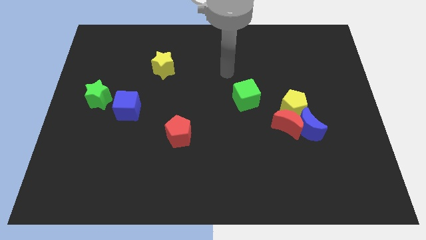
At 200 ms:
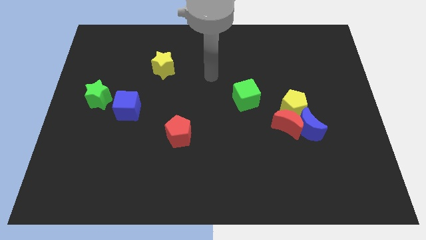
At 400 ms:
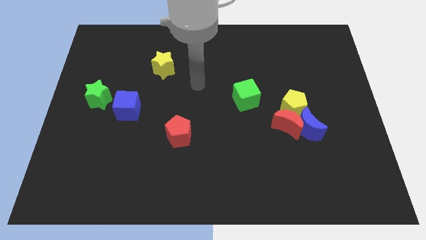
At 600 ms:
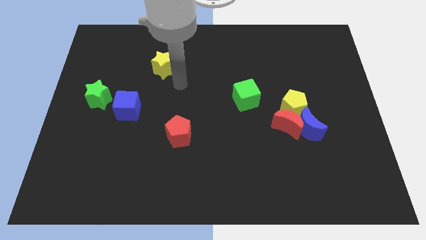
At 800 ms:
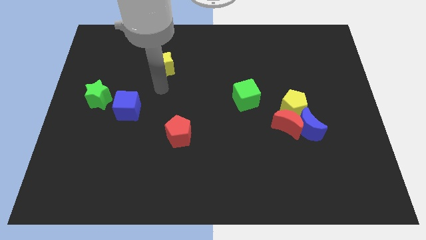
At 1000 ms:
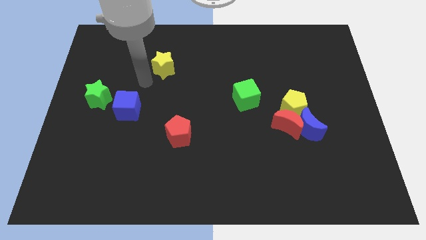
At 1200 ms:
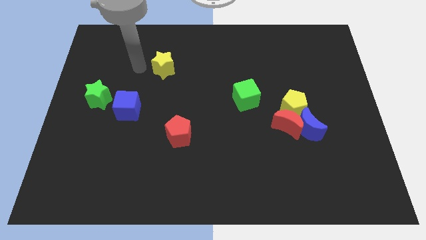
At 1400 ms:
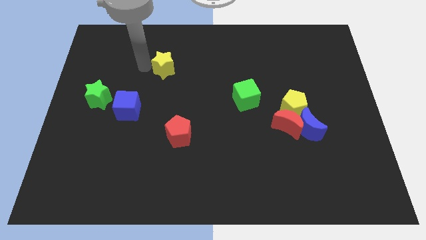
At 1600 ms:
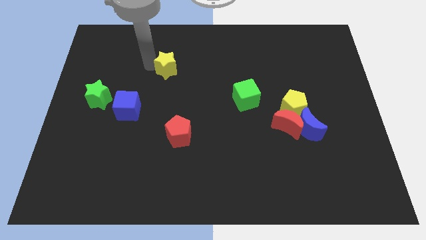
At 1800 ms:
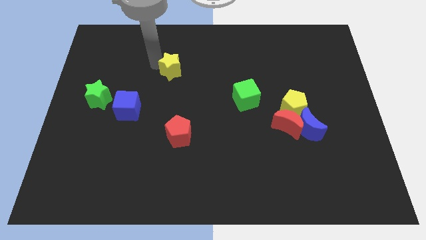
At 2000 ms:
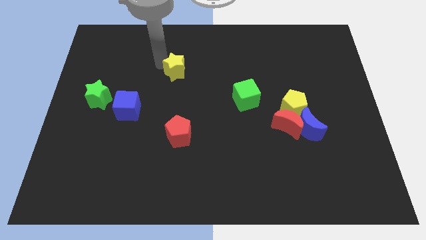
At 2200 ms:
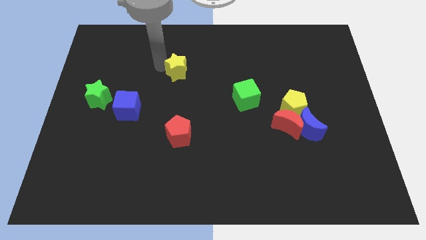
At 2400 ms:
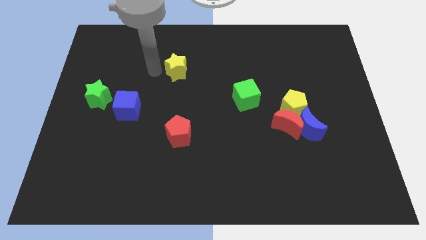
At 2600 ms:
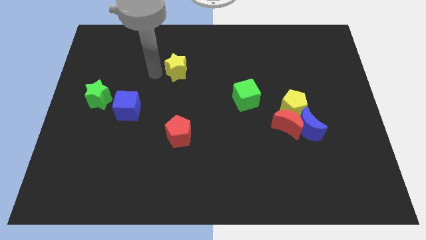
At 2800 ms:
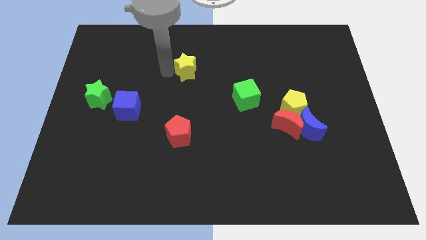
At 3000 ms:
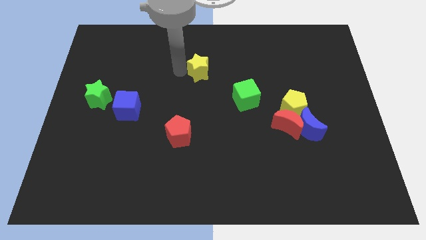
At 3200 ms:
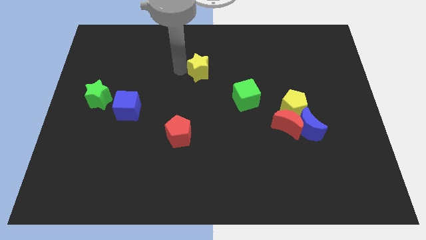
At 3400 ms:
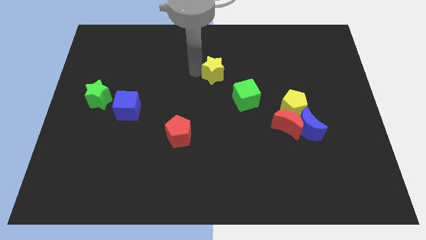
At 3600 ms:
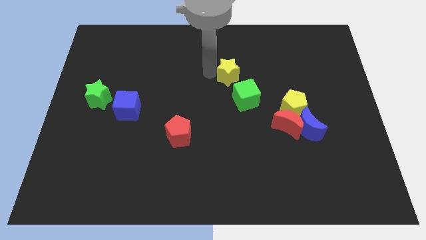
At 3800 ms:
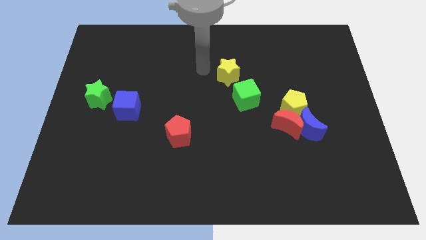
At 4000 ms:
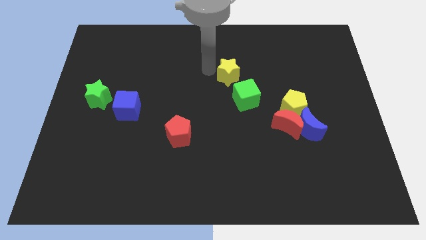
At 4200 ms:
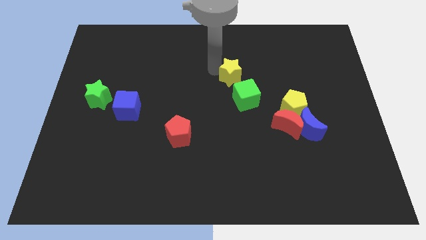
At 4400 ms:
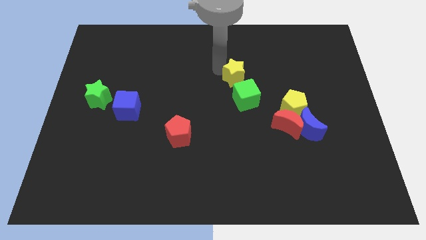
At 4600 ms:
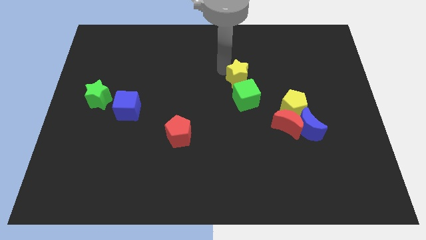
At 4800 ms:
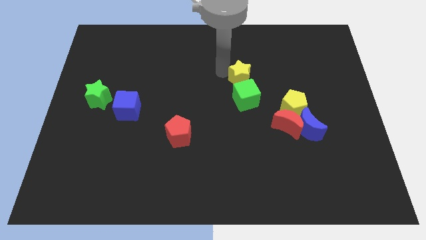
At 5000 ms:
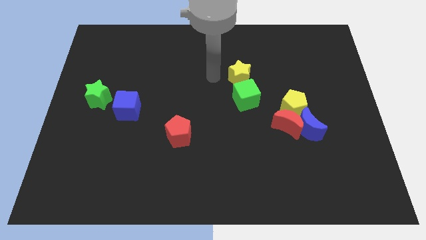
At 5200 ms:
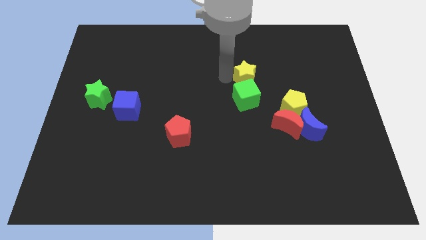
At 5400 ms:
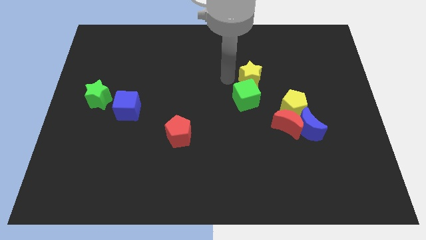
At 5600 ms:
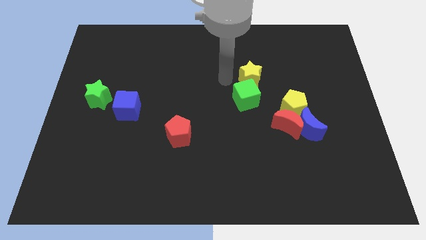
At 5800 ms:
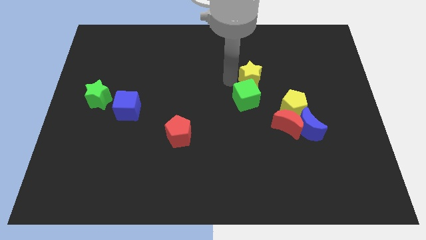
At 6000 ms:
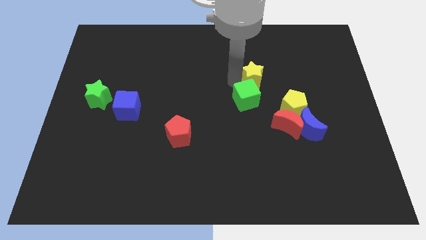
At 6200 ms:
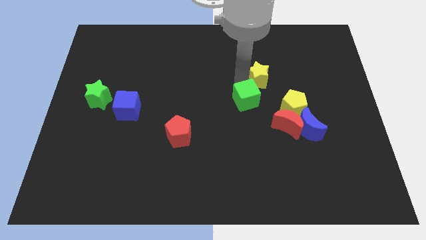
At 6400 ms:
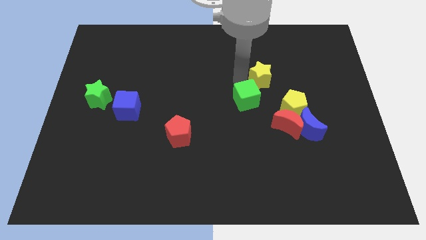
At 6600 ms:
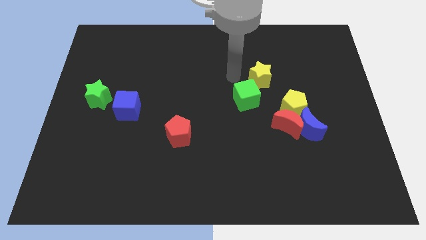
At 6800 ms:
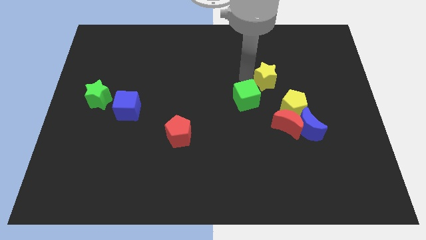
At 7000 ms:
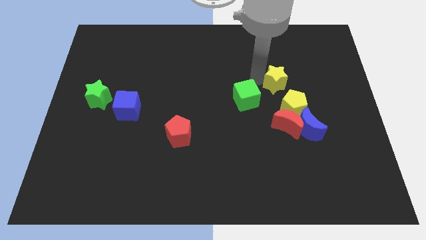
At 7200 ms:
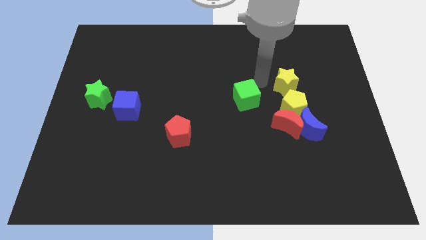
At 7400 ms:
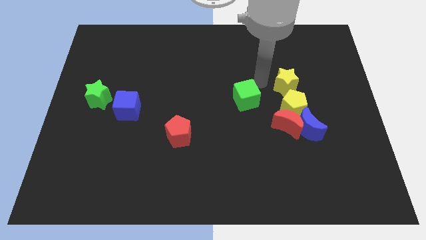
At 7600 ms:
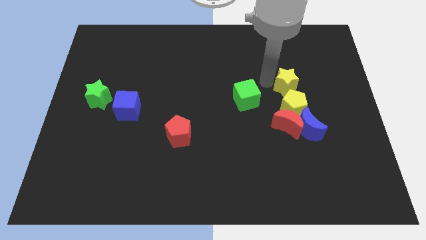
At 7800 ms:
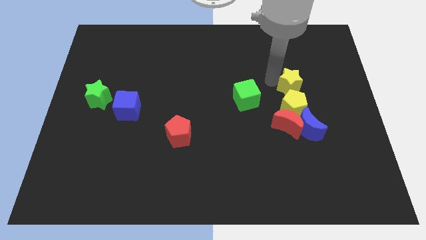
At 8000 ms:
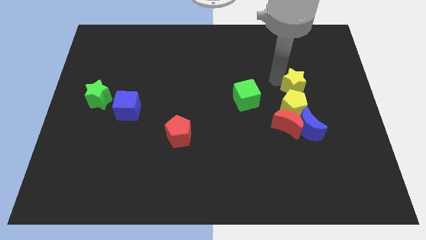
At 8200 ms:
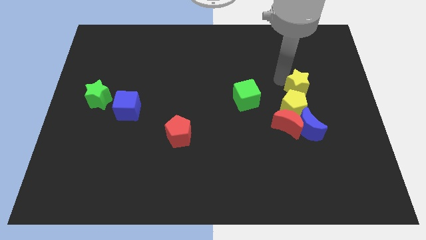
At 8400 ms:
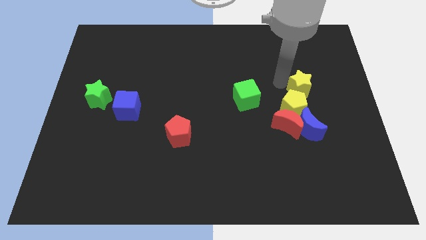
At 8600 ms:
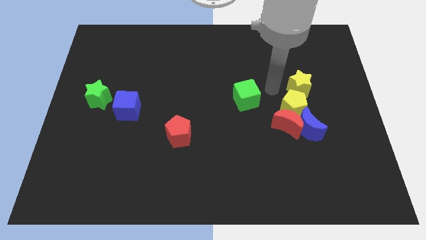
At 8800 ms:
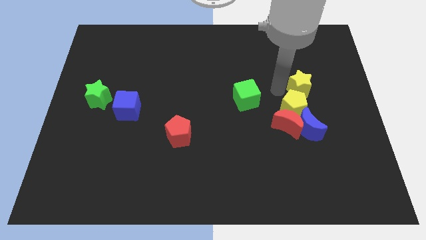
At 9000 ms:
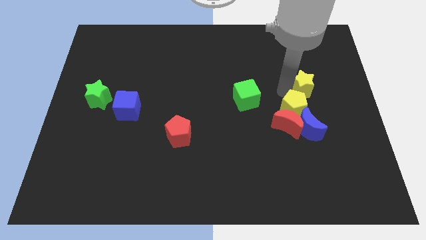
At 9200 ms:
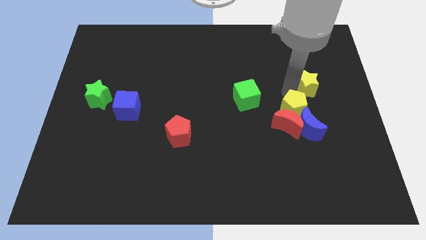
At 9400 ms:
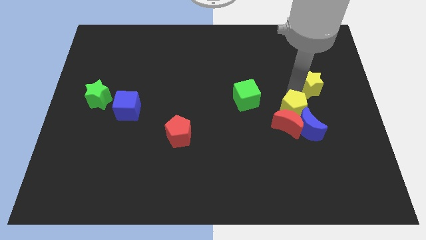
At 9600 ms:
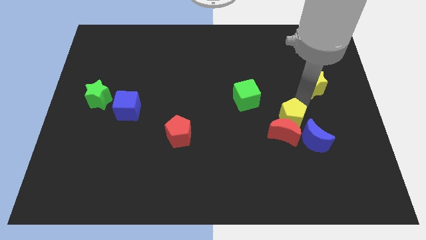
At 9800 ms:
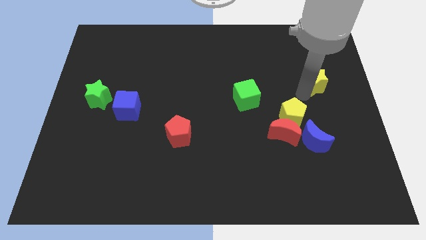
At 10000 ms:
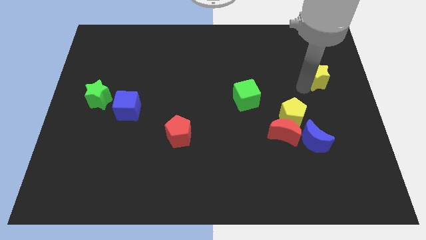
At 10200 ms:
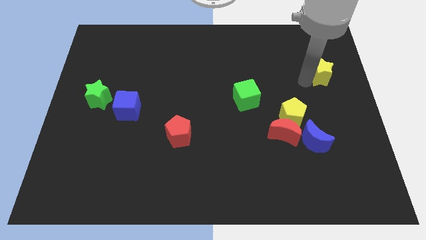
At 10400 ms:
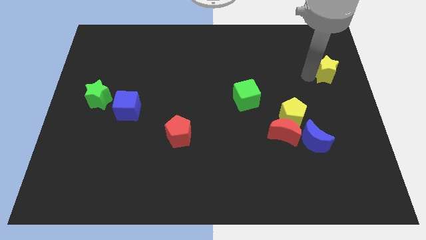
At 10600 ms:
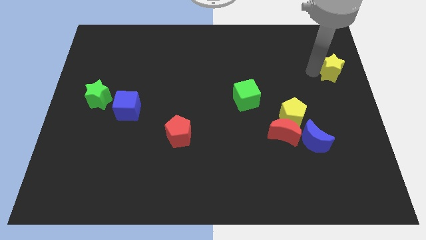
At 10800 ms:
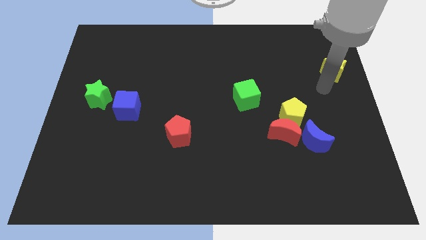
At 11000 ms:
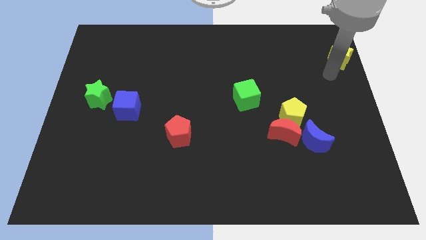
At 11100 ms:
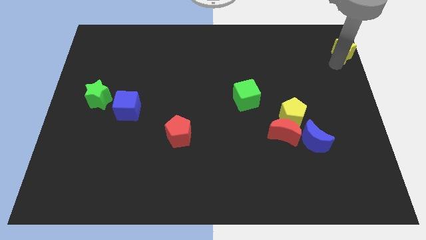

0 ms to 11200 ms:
move the yellow star to the top right of the board

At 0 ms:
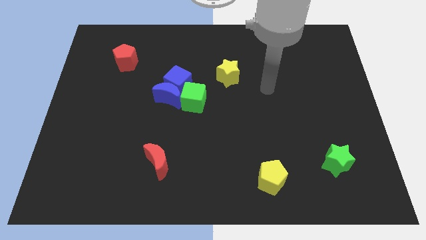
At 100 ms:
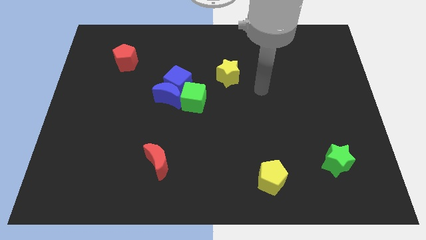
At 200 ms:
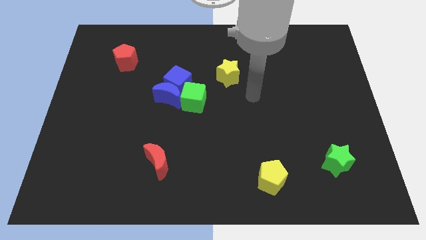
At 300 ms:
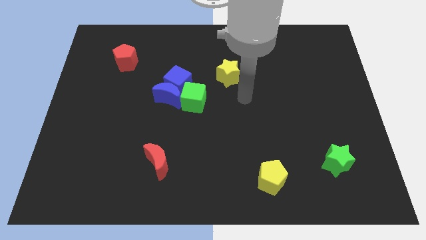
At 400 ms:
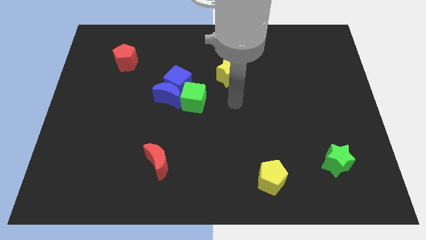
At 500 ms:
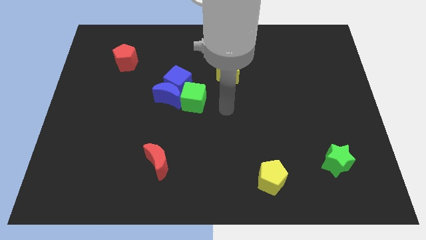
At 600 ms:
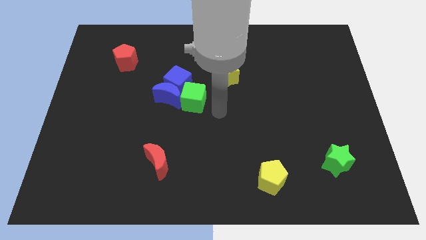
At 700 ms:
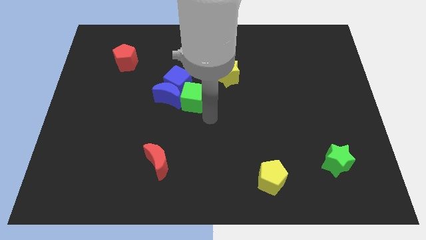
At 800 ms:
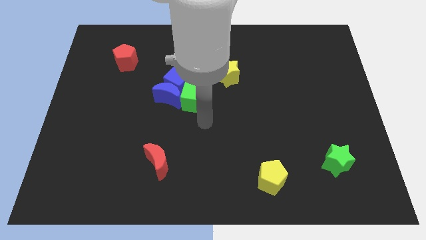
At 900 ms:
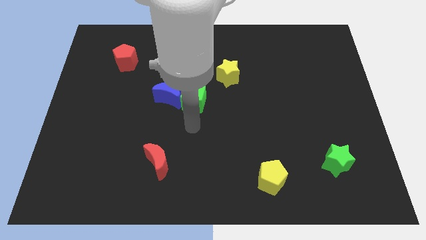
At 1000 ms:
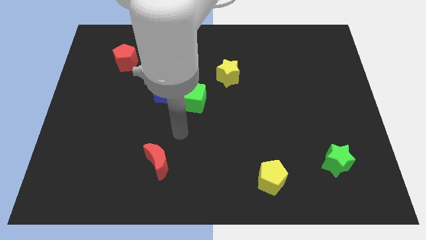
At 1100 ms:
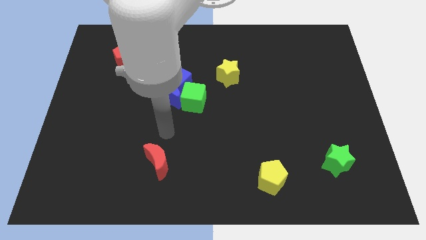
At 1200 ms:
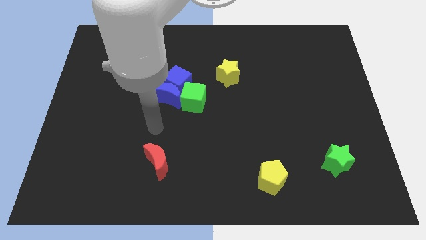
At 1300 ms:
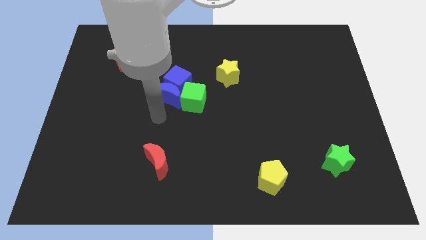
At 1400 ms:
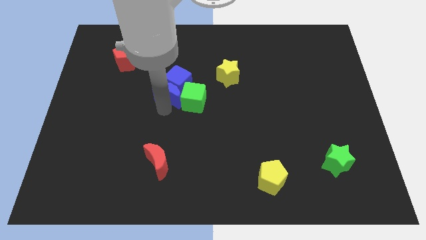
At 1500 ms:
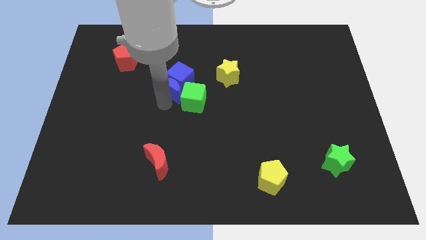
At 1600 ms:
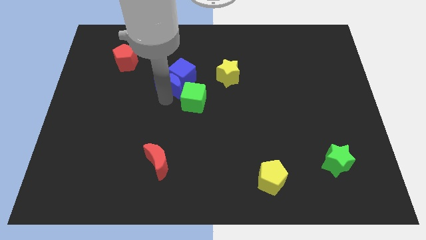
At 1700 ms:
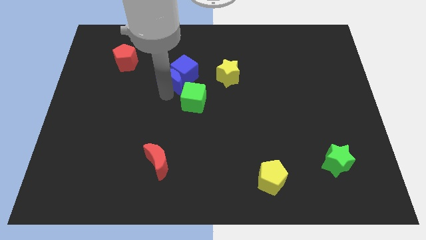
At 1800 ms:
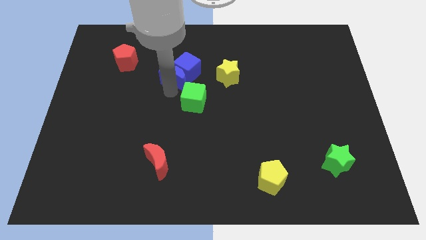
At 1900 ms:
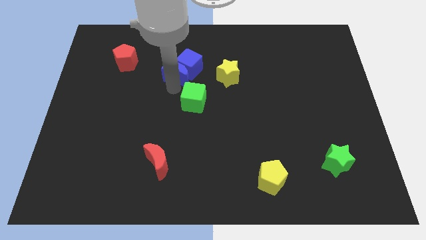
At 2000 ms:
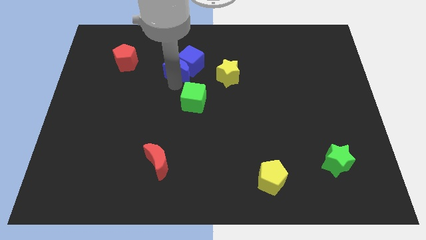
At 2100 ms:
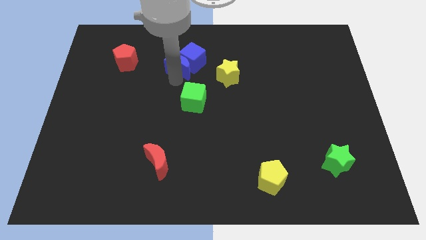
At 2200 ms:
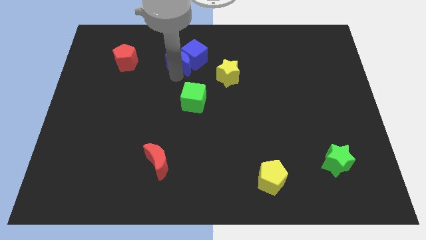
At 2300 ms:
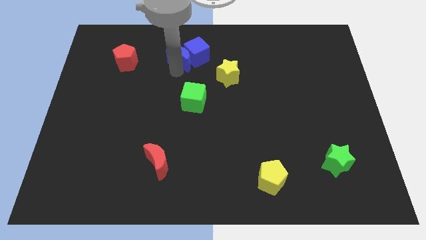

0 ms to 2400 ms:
push the blue cube to the top side
